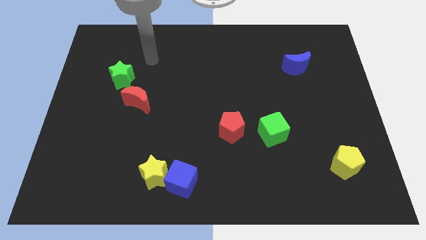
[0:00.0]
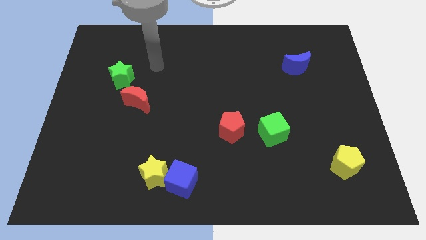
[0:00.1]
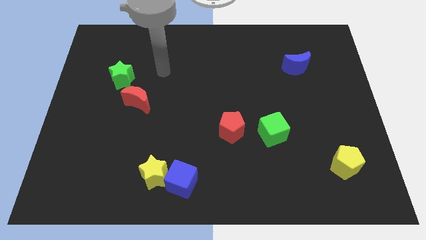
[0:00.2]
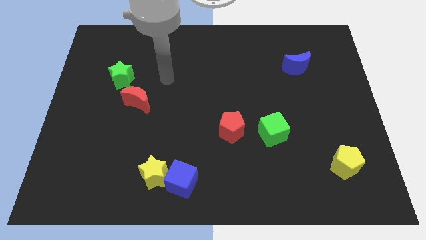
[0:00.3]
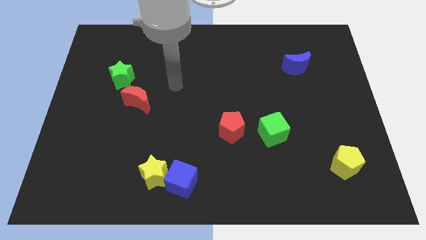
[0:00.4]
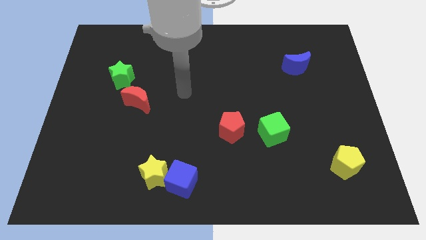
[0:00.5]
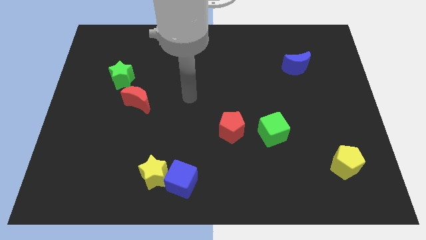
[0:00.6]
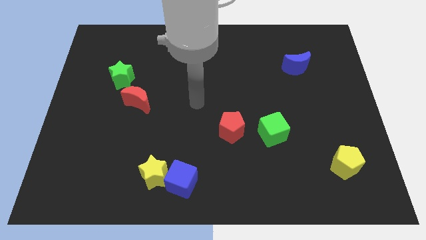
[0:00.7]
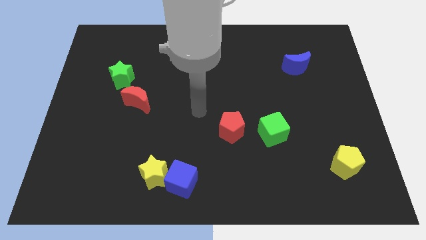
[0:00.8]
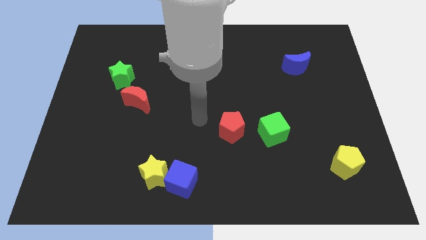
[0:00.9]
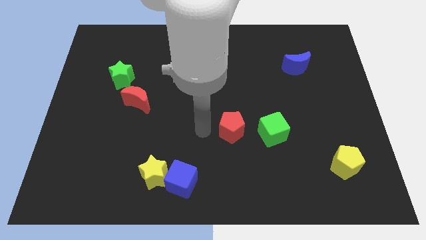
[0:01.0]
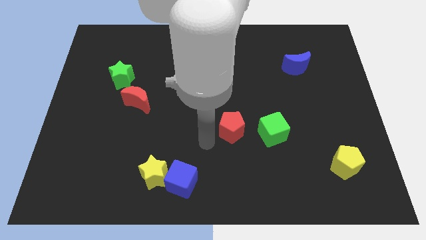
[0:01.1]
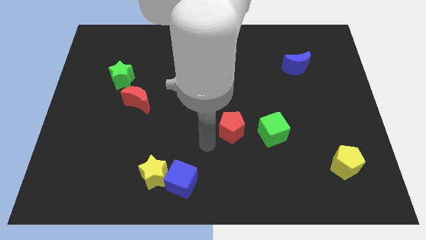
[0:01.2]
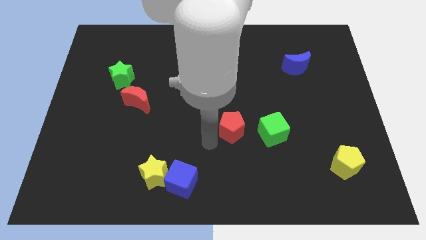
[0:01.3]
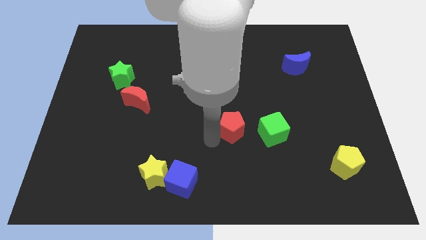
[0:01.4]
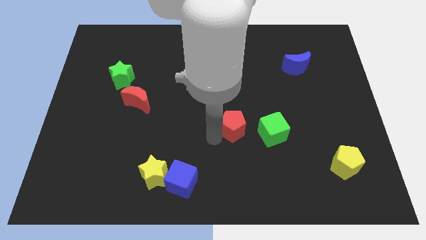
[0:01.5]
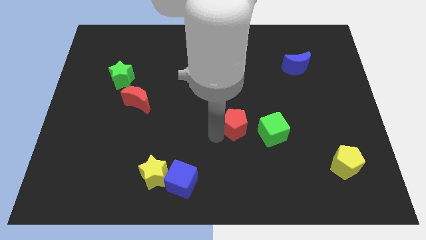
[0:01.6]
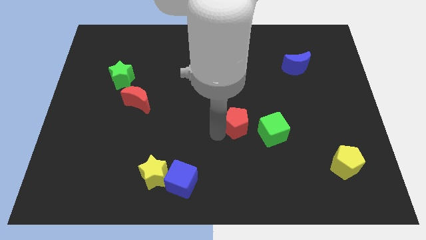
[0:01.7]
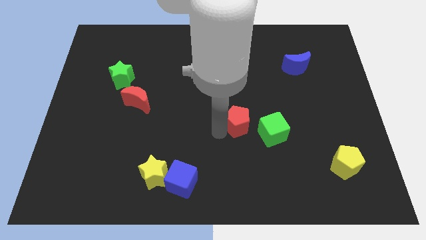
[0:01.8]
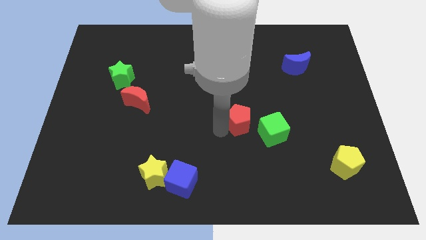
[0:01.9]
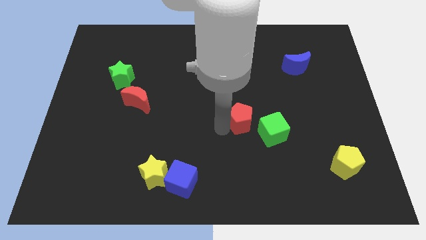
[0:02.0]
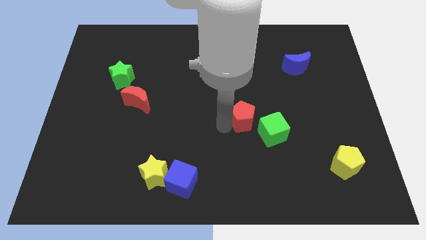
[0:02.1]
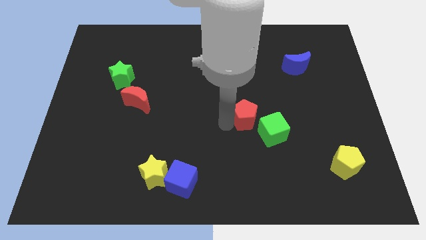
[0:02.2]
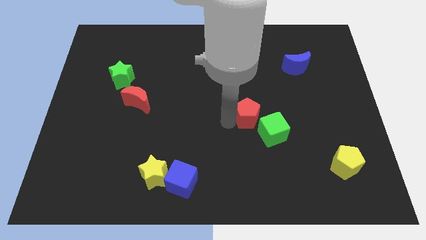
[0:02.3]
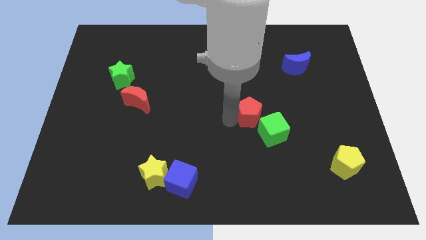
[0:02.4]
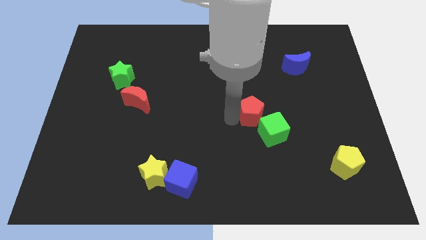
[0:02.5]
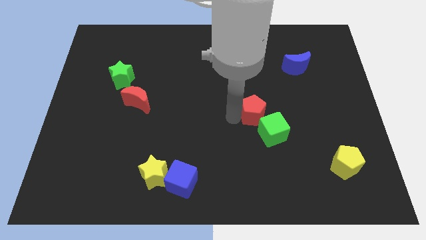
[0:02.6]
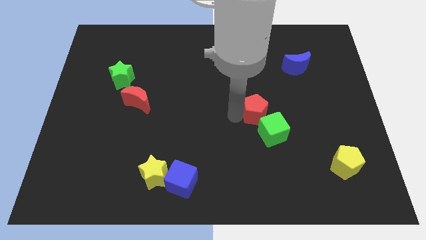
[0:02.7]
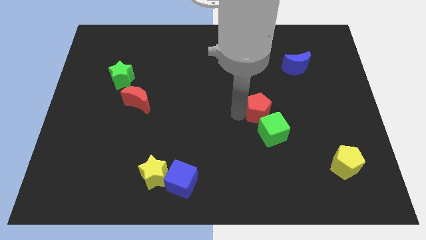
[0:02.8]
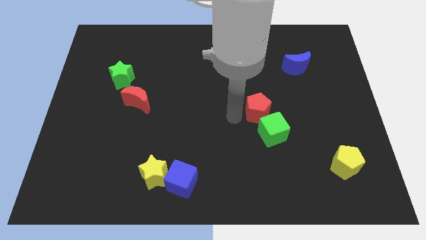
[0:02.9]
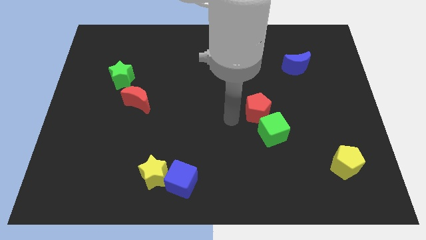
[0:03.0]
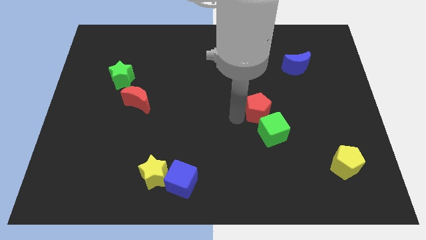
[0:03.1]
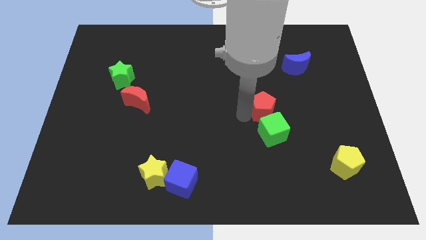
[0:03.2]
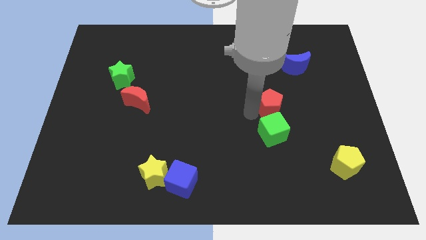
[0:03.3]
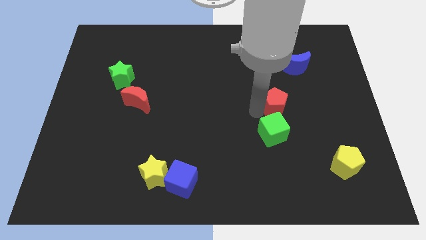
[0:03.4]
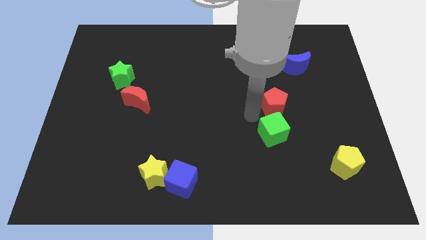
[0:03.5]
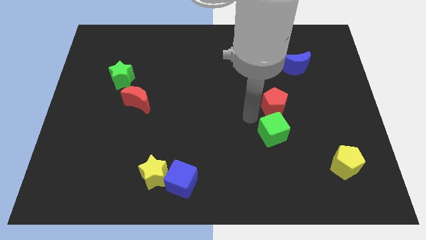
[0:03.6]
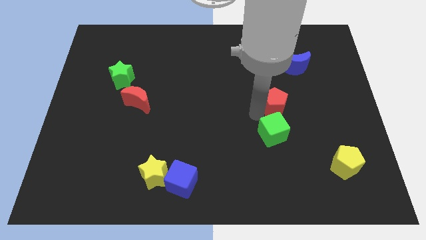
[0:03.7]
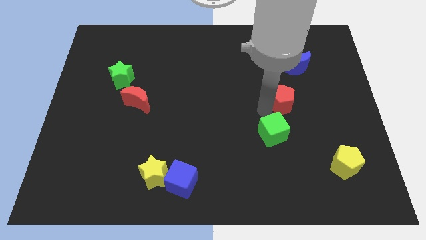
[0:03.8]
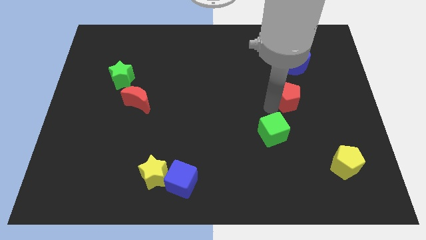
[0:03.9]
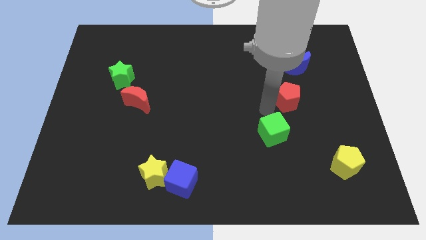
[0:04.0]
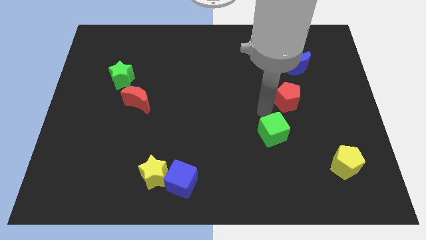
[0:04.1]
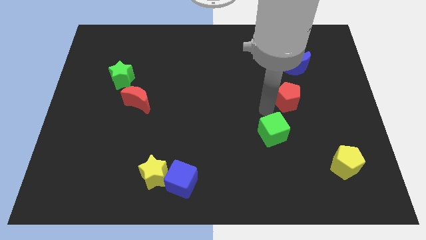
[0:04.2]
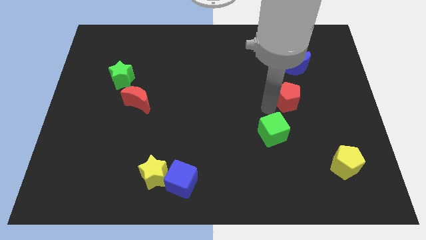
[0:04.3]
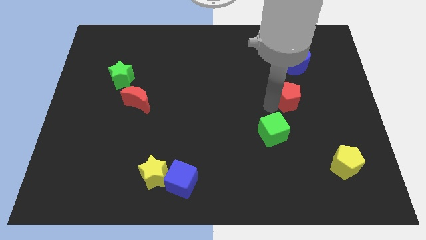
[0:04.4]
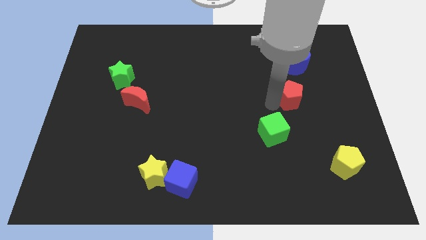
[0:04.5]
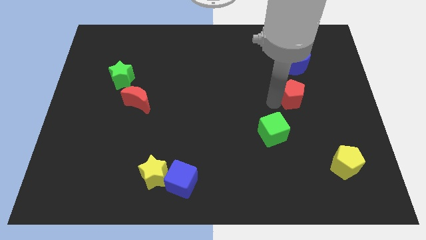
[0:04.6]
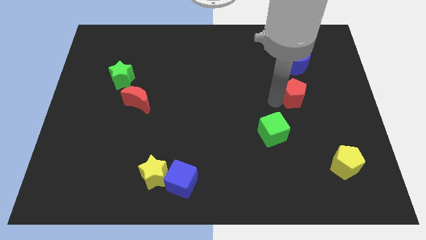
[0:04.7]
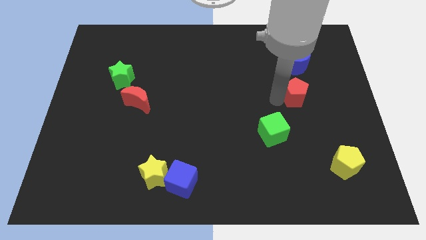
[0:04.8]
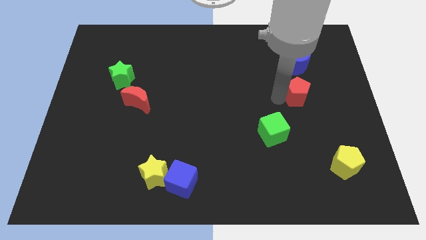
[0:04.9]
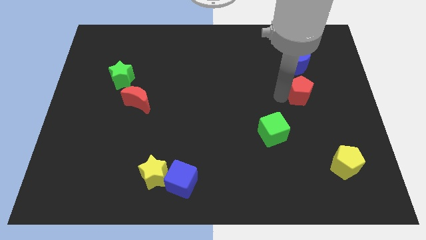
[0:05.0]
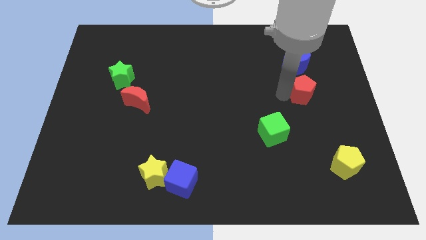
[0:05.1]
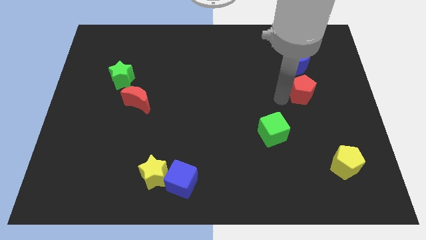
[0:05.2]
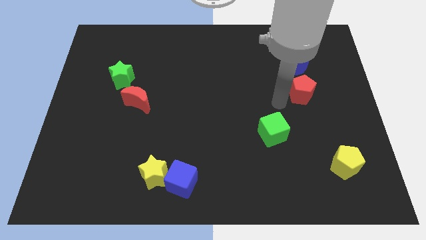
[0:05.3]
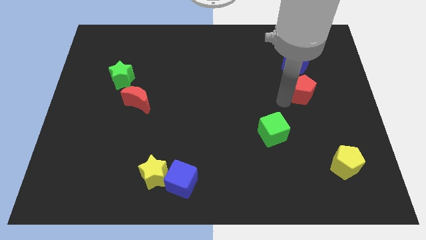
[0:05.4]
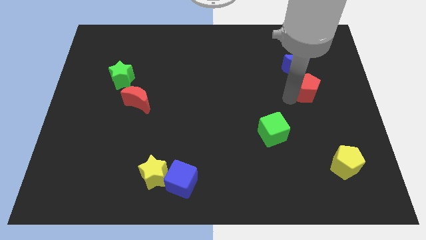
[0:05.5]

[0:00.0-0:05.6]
slide the red pentagon upwards and right diagonally

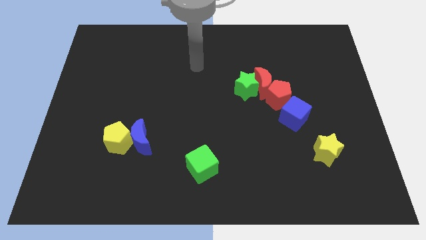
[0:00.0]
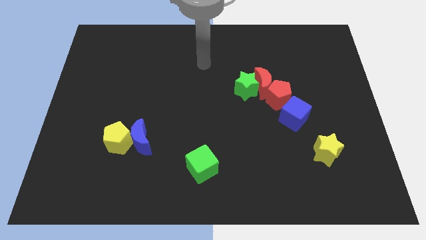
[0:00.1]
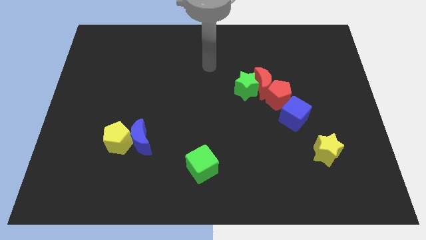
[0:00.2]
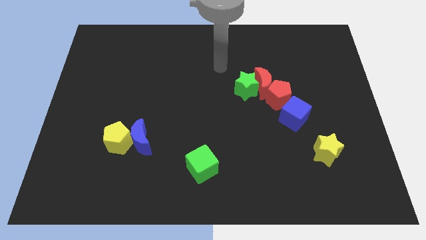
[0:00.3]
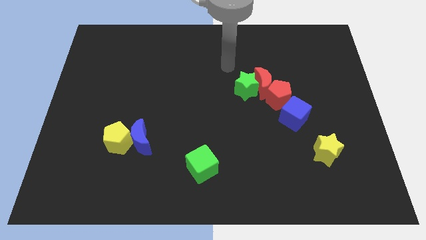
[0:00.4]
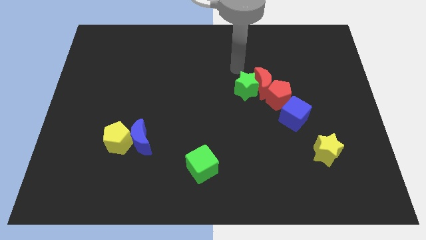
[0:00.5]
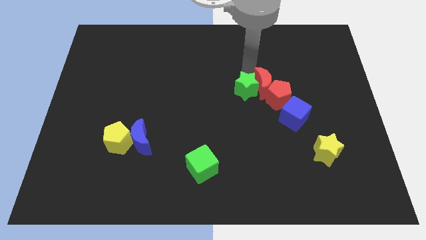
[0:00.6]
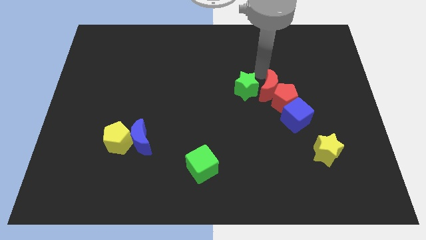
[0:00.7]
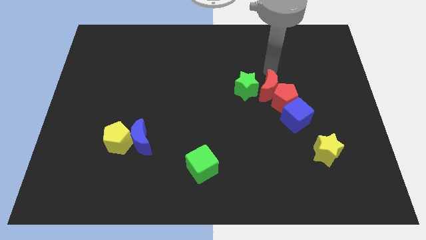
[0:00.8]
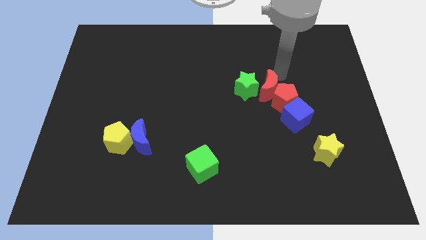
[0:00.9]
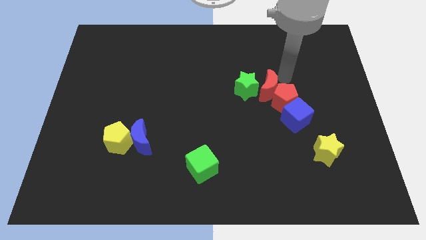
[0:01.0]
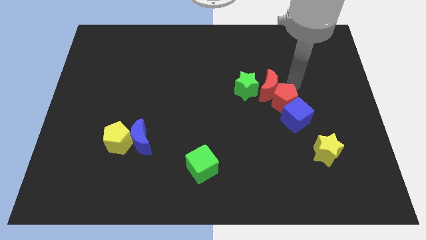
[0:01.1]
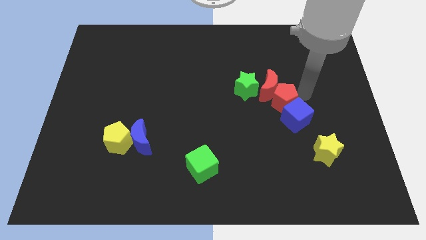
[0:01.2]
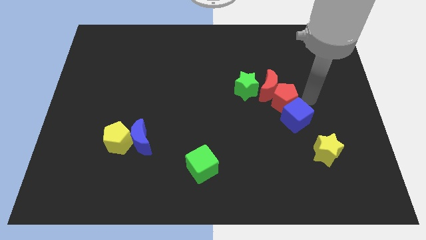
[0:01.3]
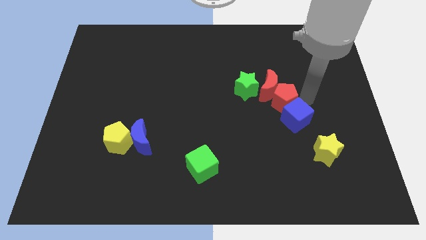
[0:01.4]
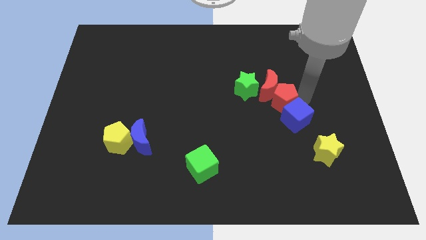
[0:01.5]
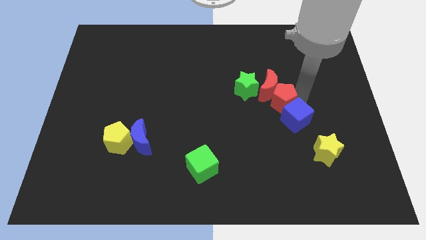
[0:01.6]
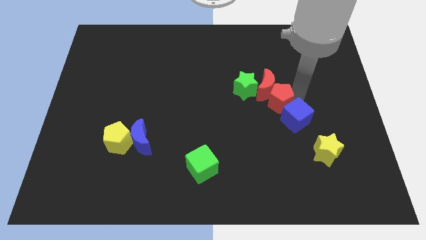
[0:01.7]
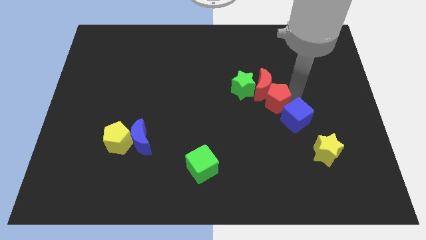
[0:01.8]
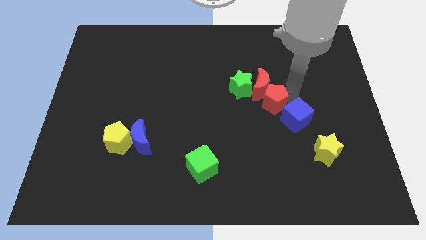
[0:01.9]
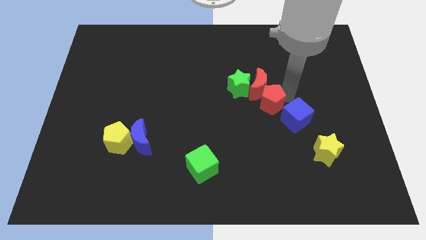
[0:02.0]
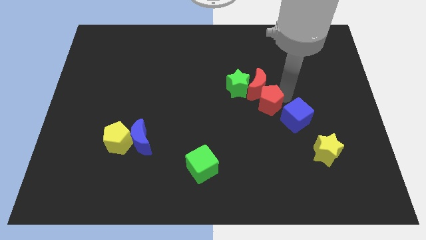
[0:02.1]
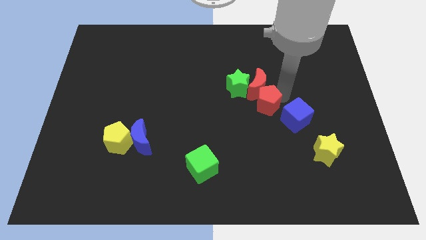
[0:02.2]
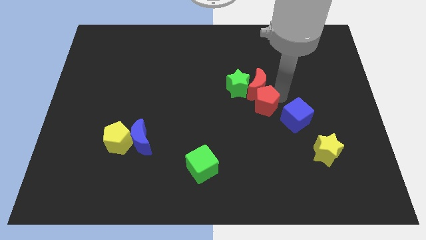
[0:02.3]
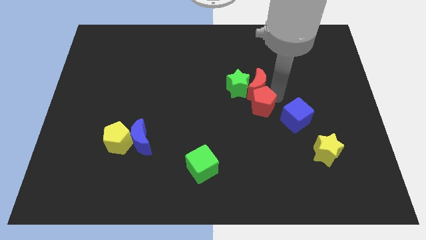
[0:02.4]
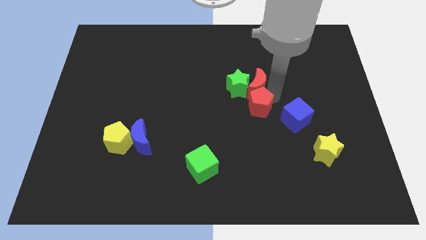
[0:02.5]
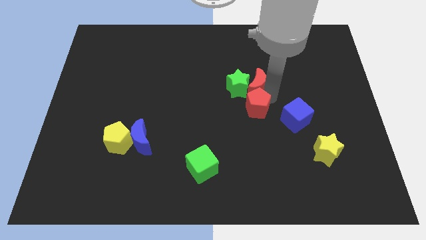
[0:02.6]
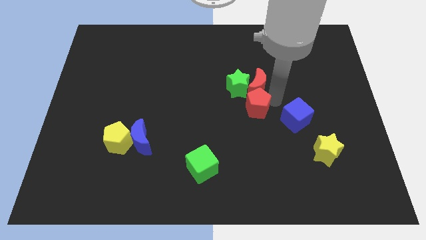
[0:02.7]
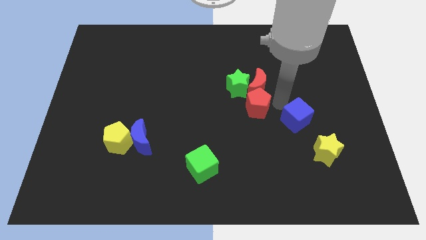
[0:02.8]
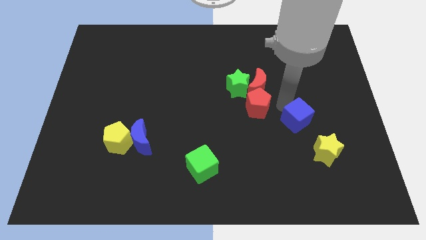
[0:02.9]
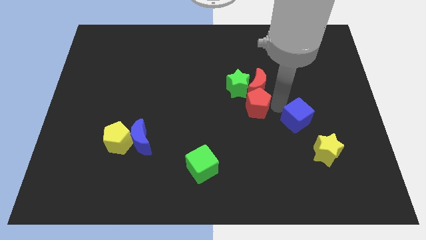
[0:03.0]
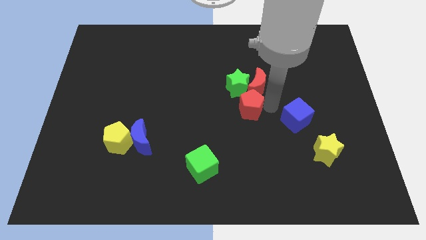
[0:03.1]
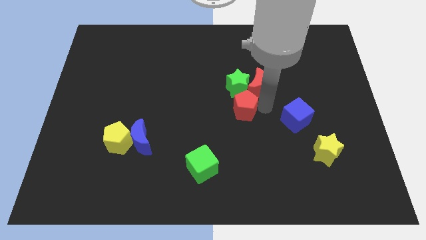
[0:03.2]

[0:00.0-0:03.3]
push the red pentagon a little bit to the left
